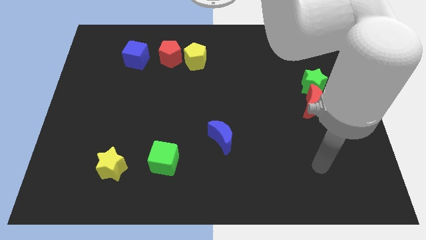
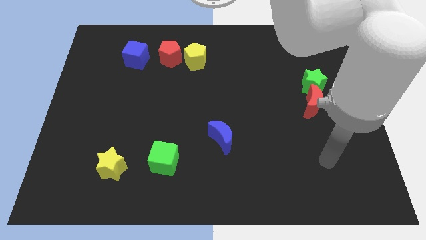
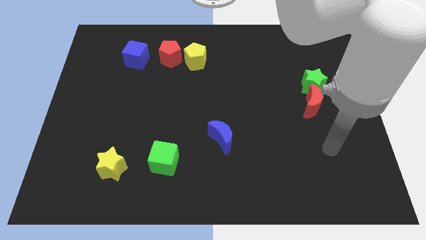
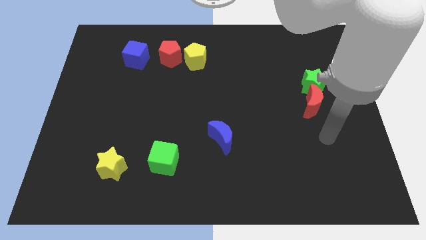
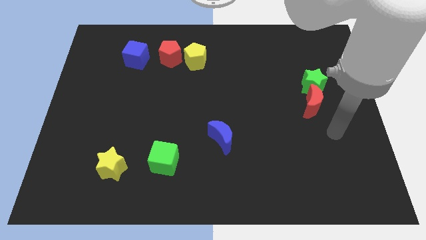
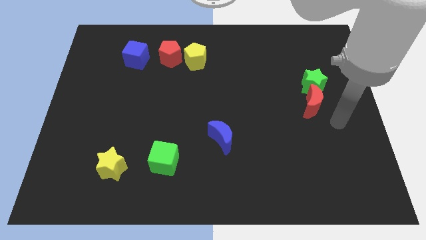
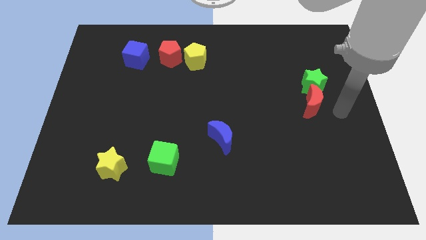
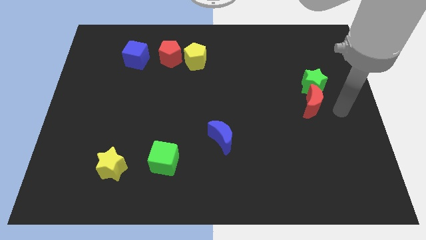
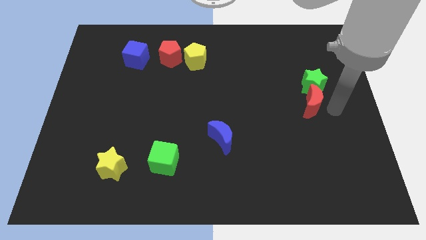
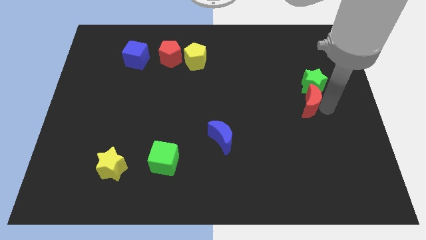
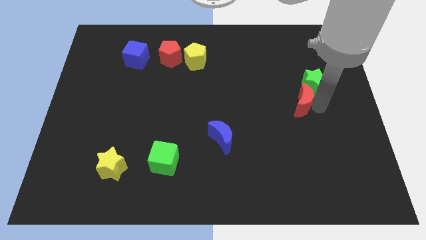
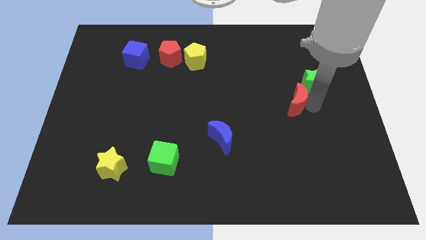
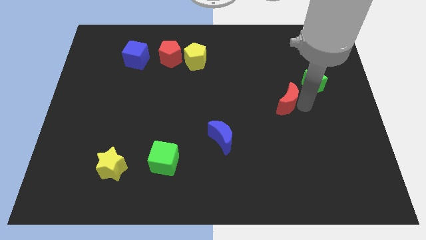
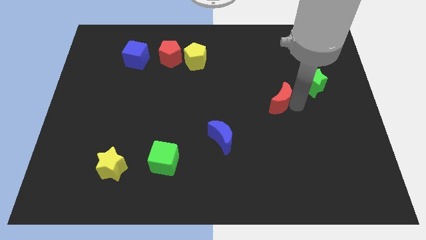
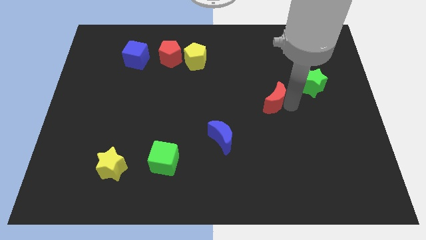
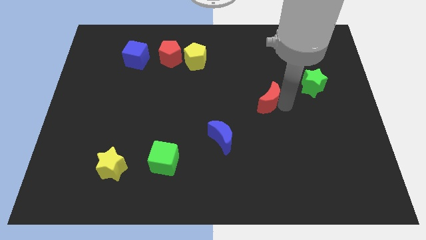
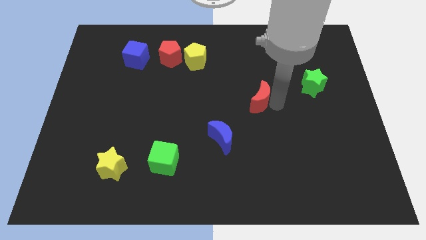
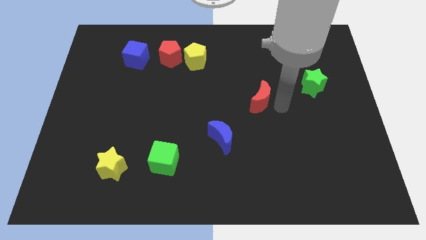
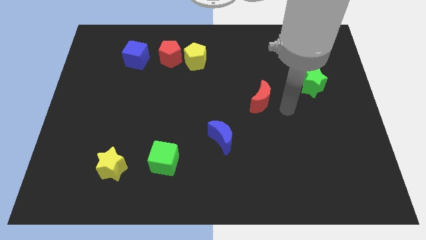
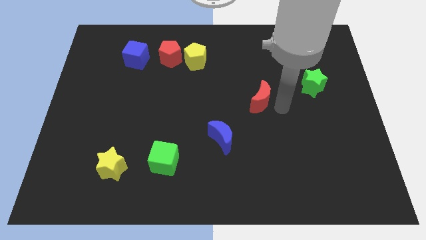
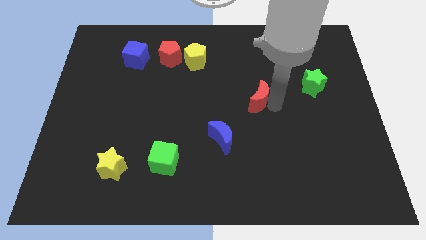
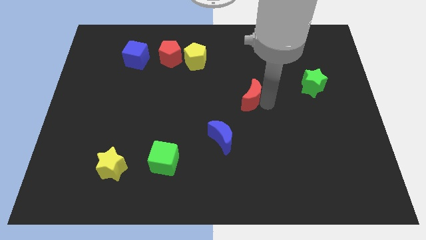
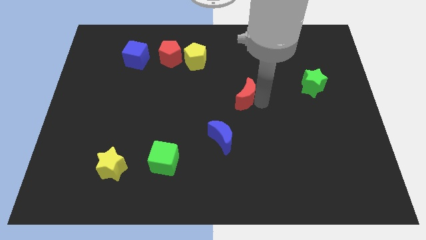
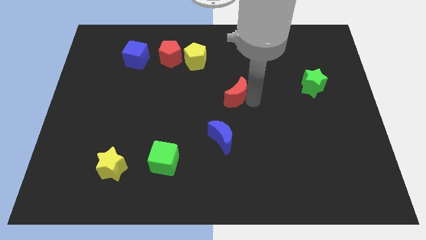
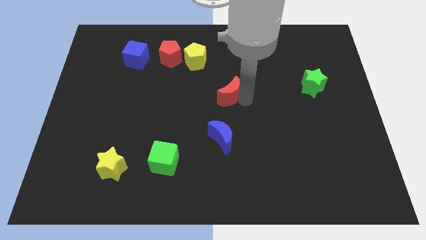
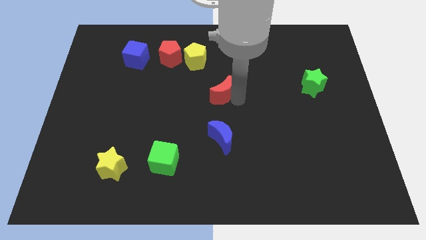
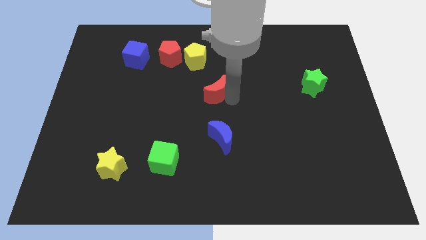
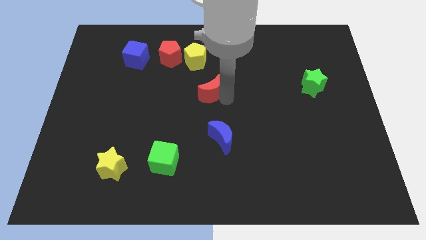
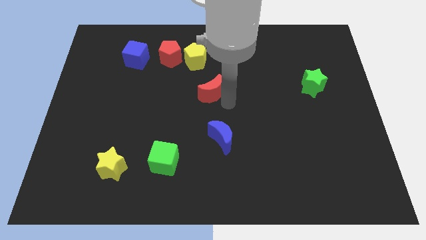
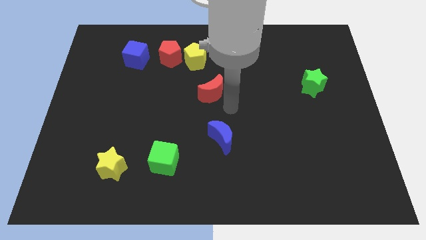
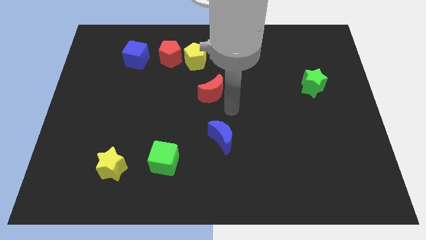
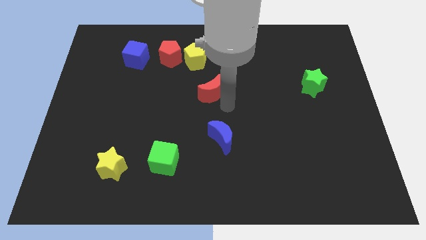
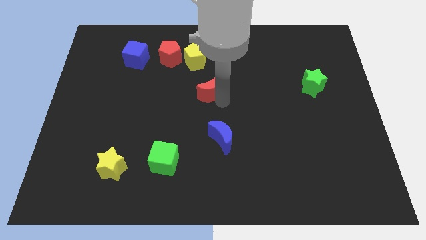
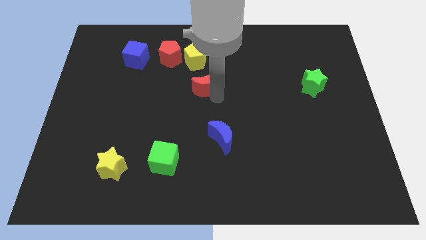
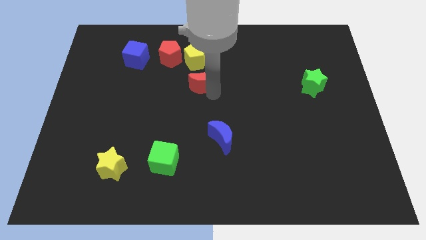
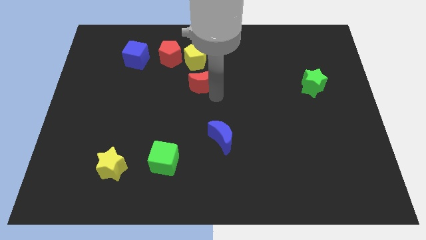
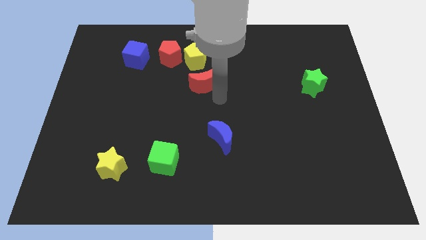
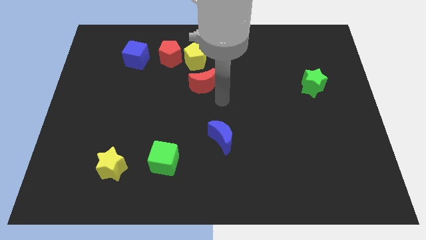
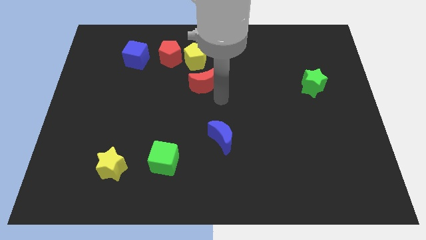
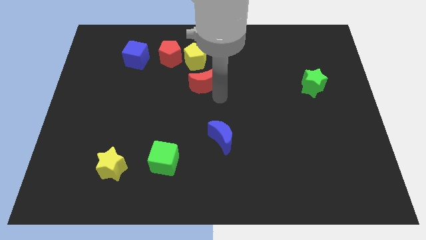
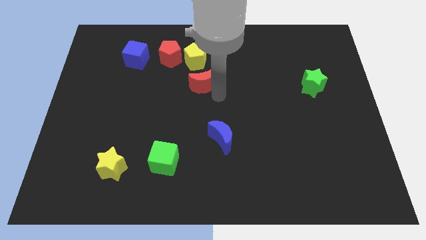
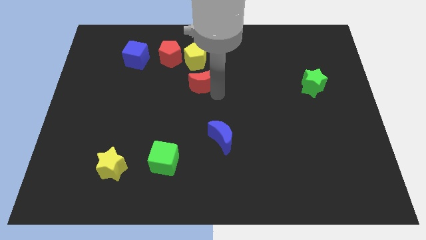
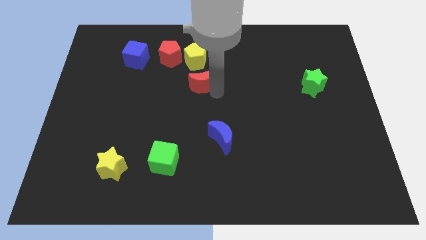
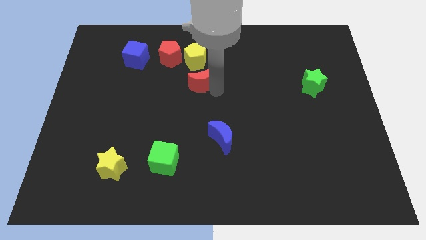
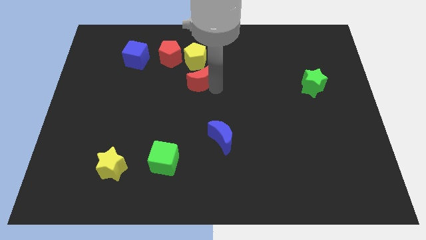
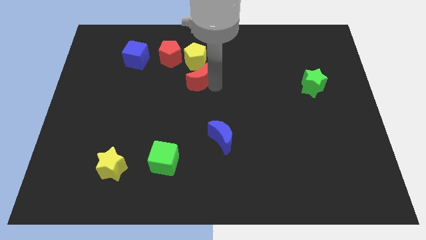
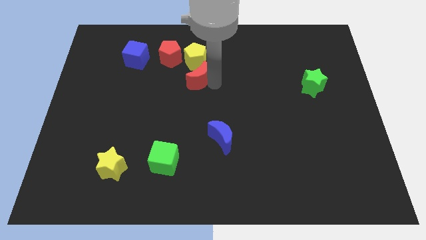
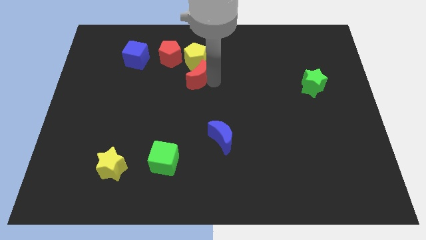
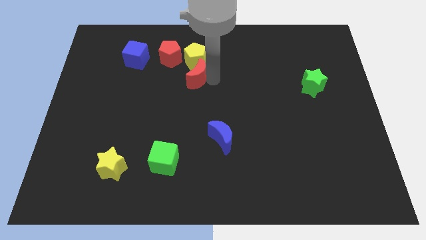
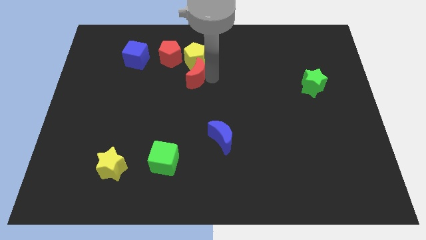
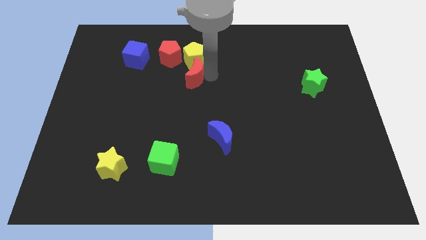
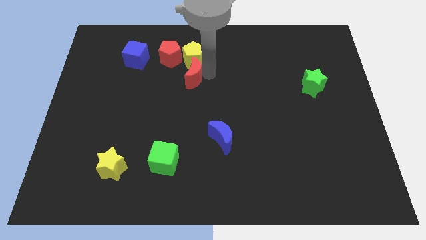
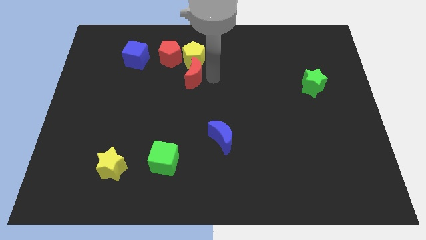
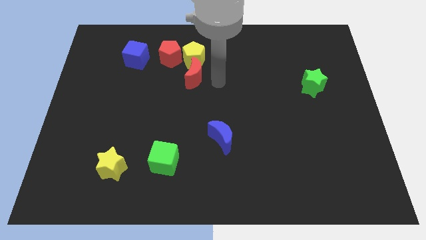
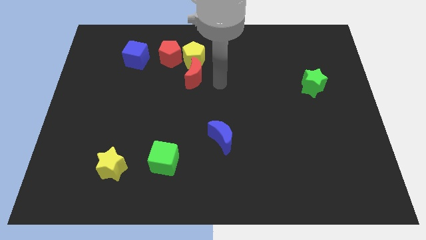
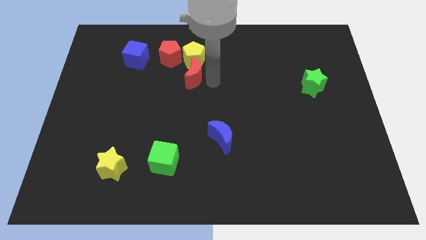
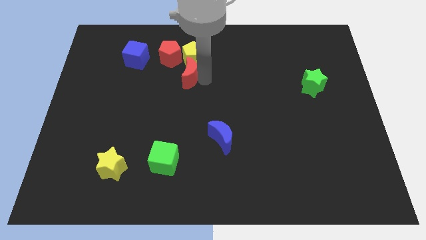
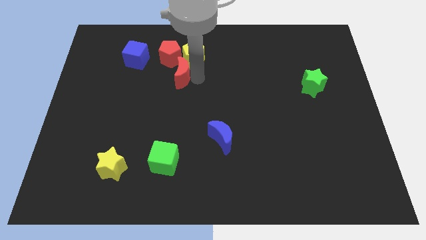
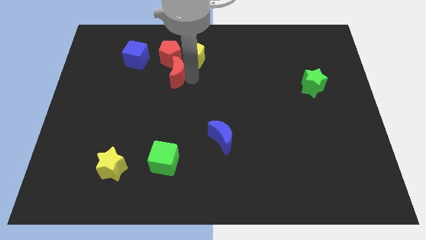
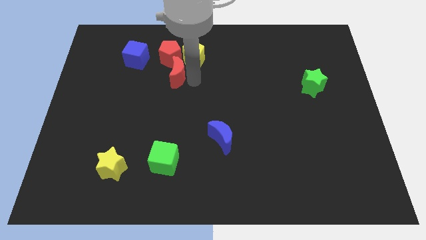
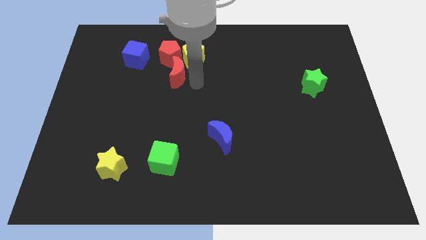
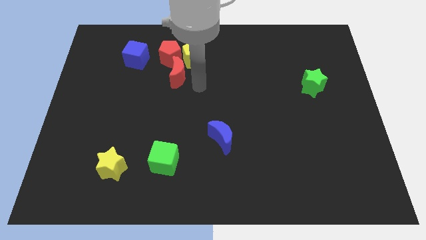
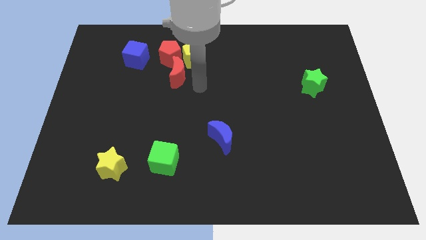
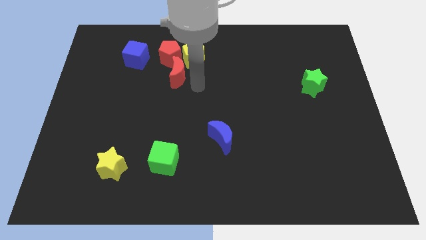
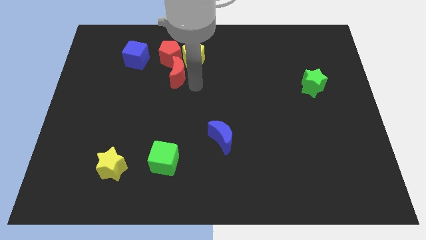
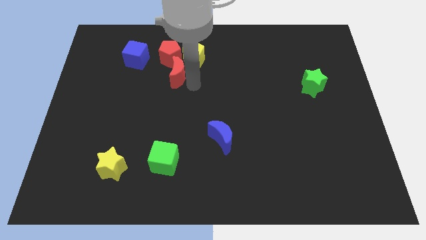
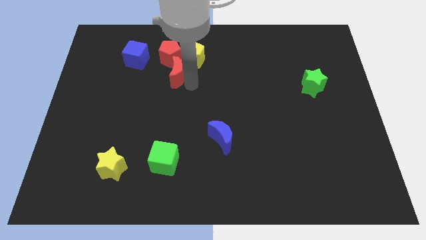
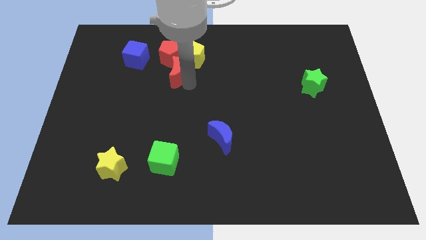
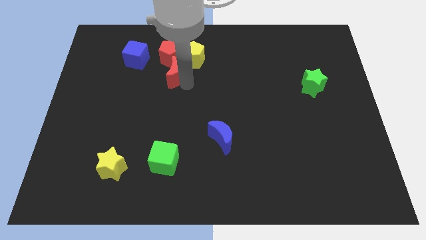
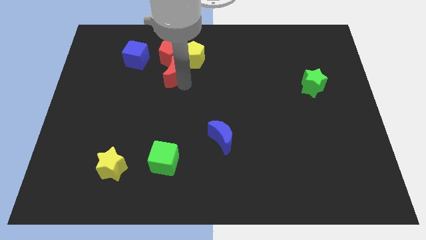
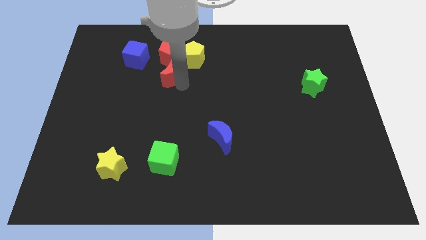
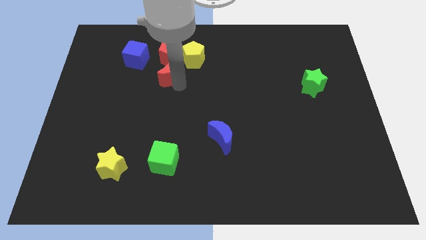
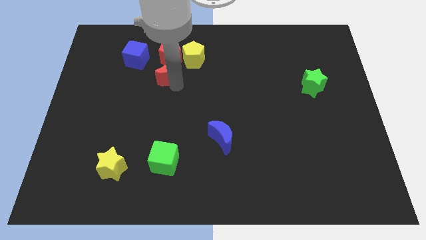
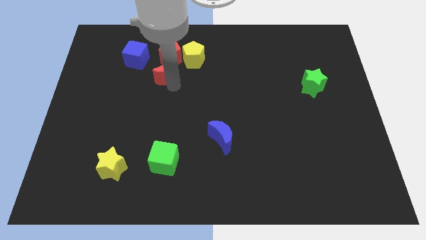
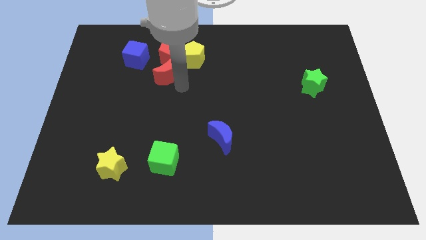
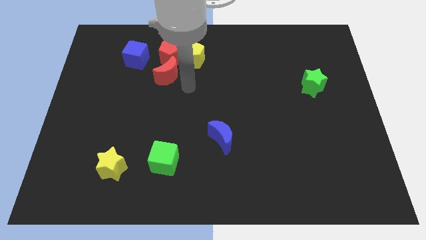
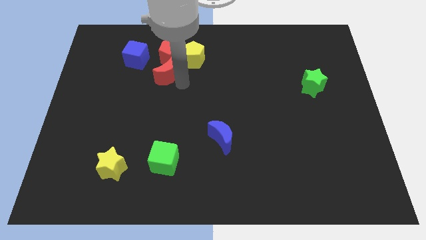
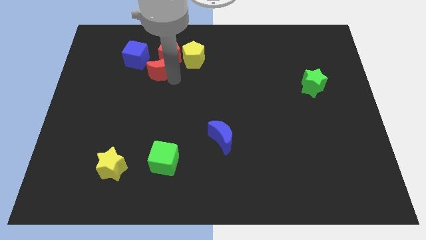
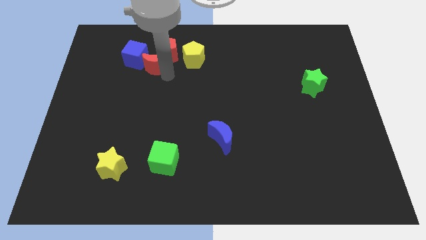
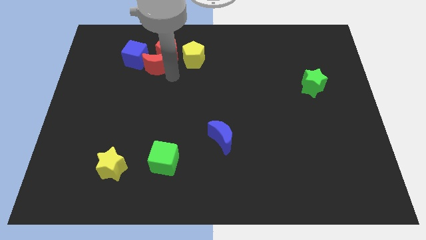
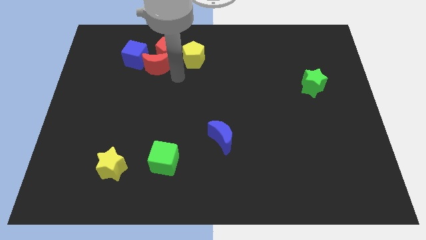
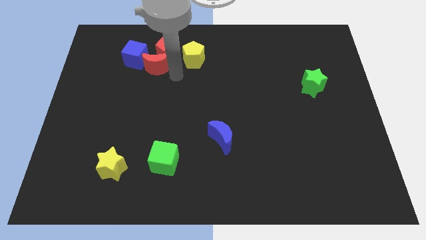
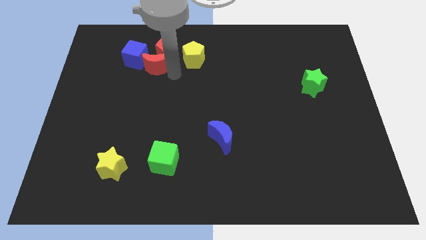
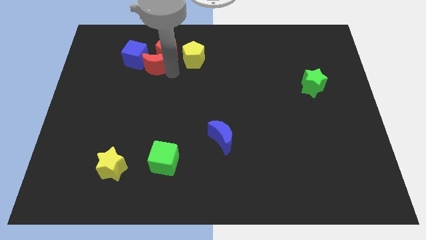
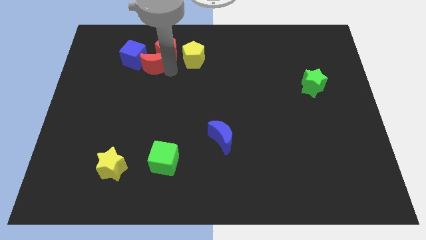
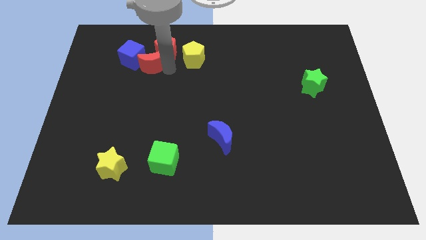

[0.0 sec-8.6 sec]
slide the red moon next to the blue cube
